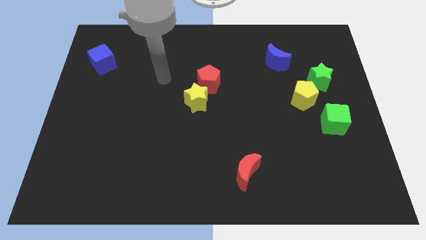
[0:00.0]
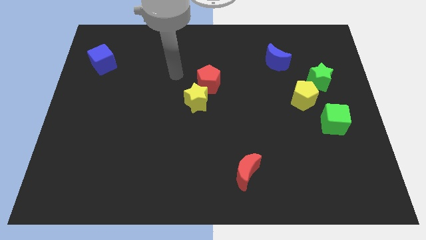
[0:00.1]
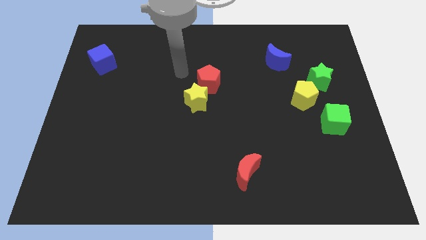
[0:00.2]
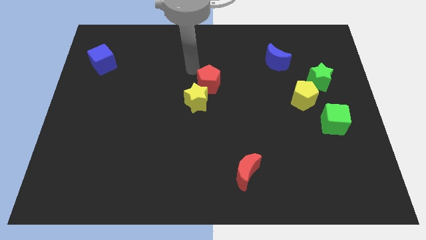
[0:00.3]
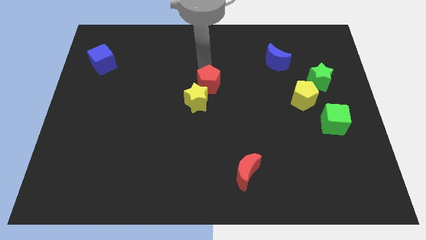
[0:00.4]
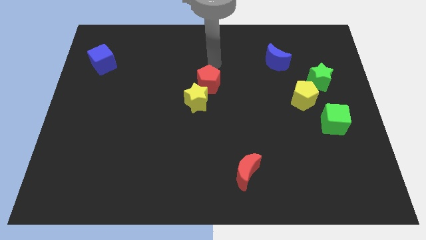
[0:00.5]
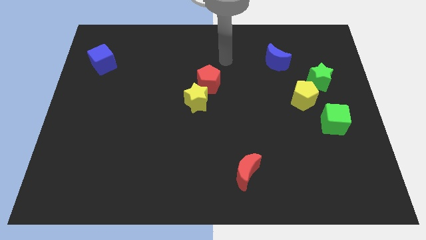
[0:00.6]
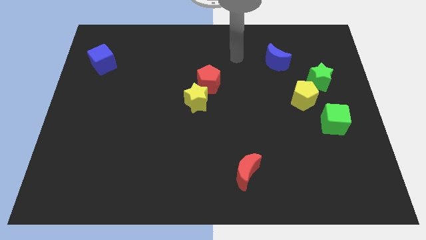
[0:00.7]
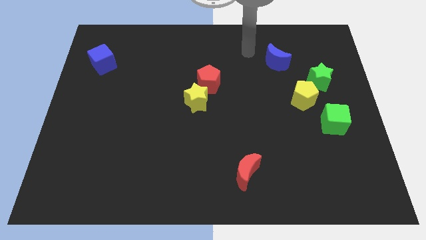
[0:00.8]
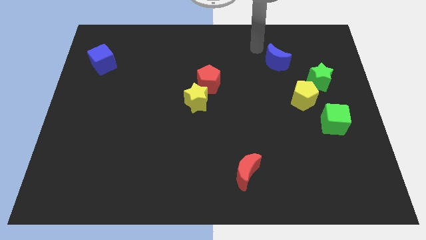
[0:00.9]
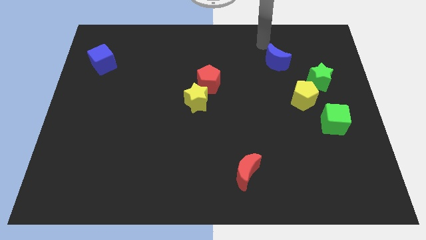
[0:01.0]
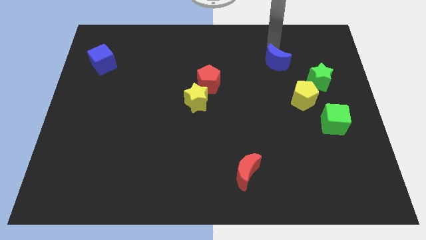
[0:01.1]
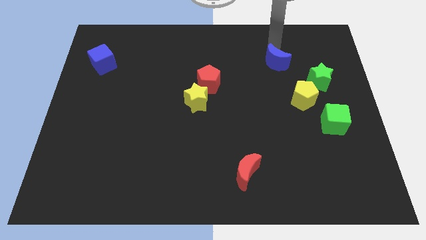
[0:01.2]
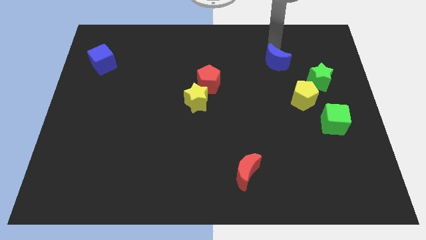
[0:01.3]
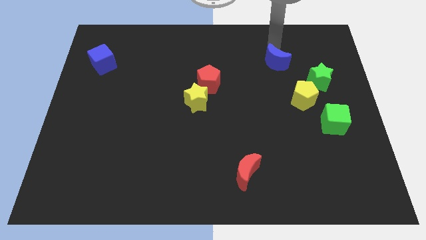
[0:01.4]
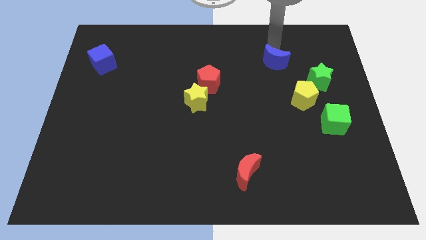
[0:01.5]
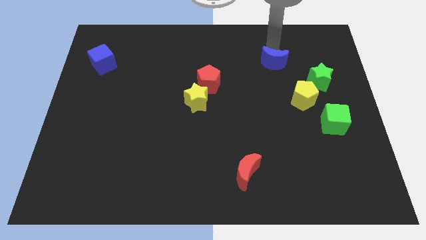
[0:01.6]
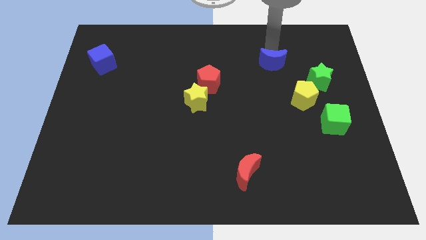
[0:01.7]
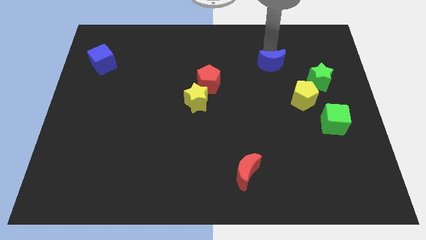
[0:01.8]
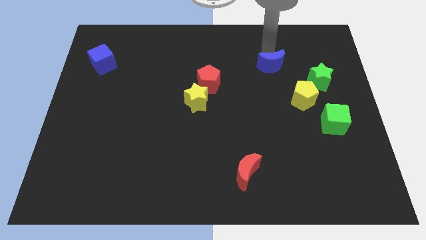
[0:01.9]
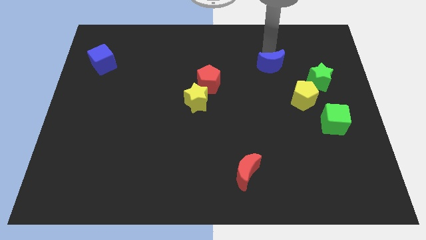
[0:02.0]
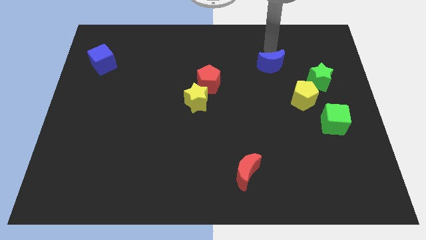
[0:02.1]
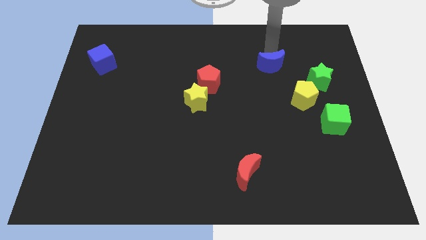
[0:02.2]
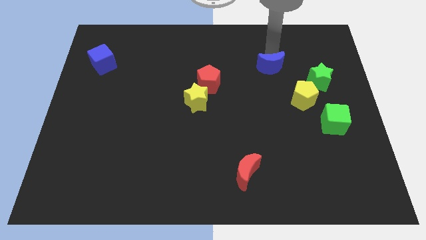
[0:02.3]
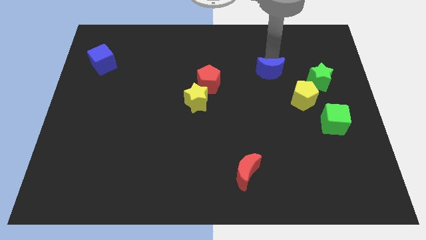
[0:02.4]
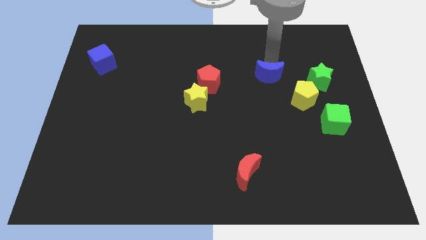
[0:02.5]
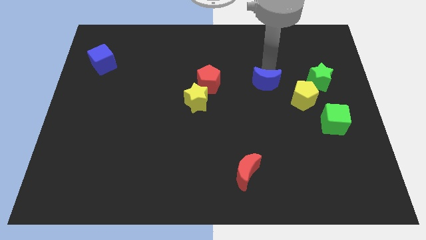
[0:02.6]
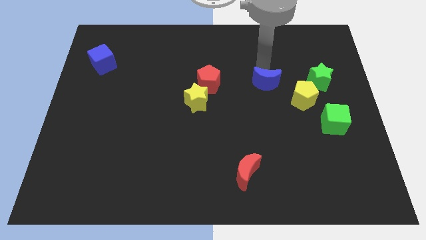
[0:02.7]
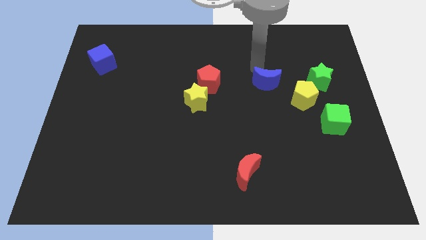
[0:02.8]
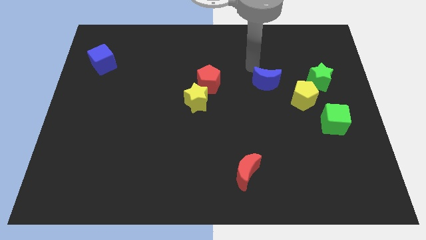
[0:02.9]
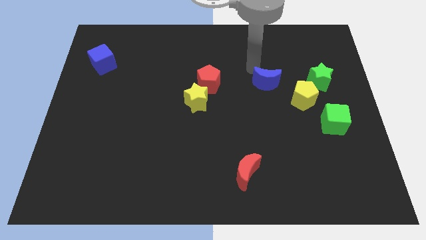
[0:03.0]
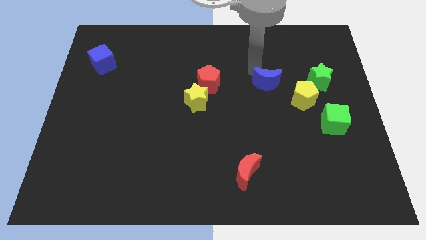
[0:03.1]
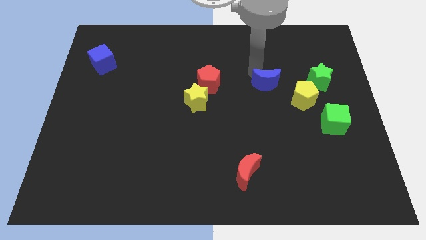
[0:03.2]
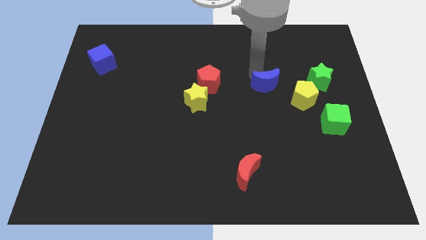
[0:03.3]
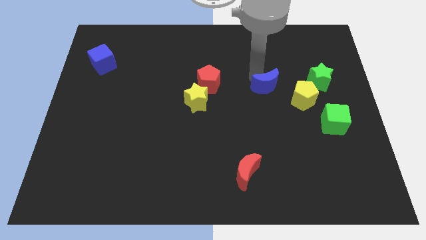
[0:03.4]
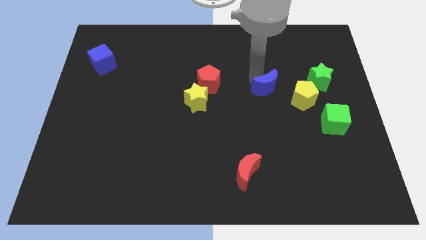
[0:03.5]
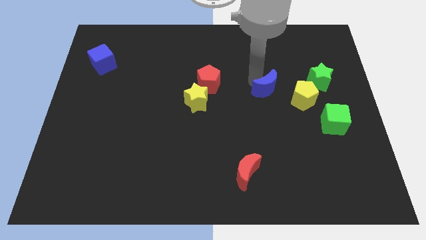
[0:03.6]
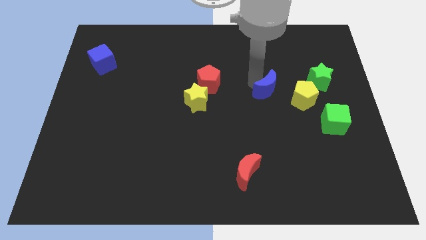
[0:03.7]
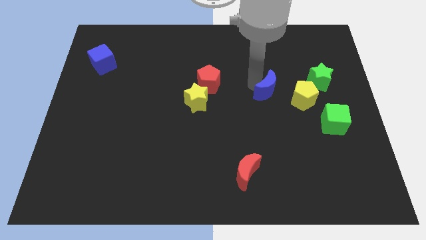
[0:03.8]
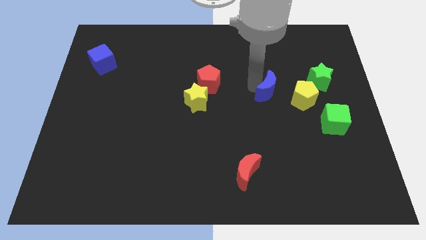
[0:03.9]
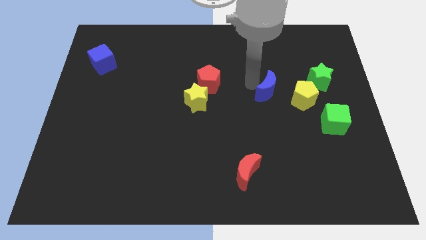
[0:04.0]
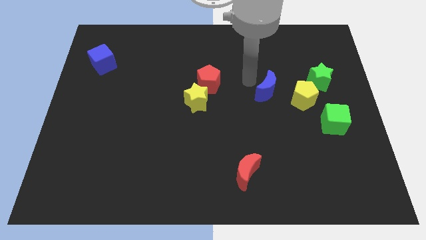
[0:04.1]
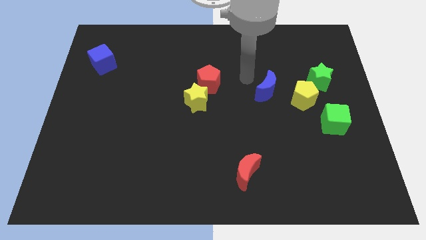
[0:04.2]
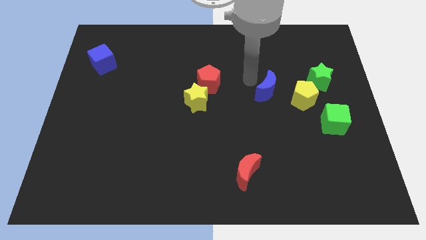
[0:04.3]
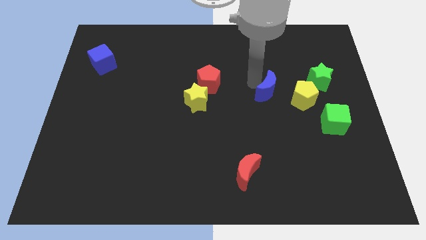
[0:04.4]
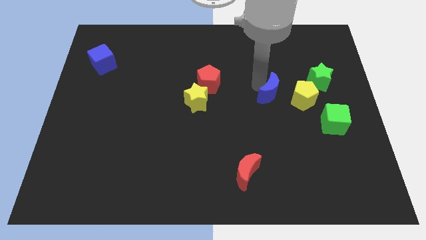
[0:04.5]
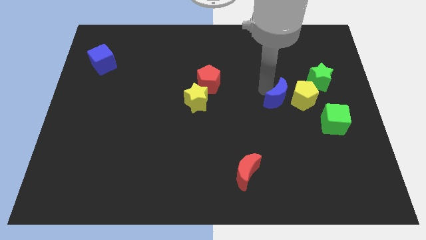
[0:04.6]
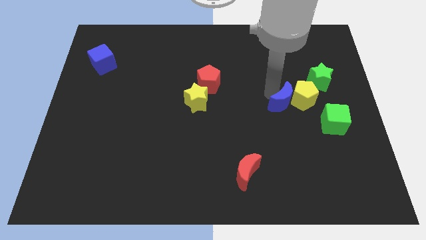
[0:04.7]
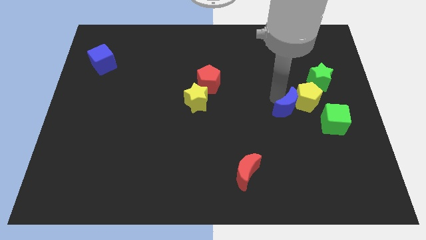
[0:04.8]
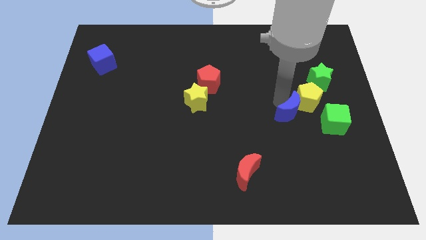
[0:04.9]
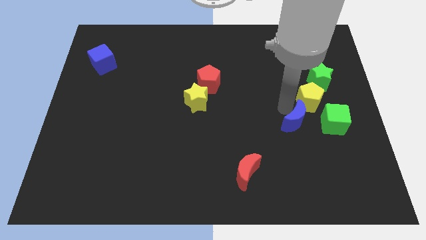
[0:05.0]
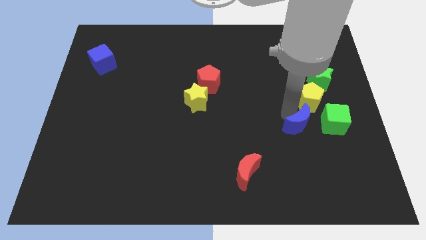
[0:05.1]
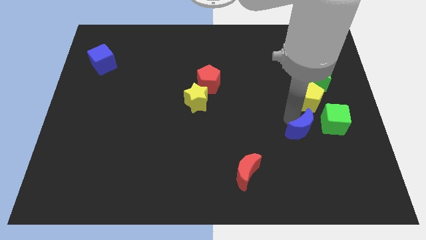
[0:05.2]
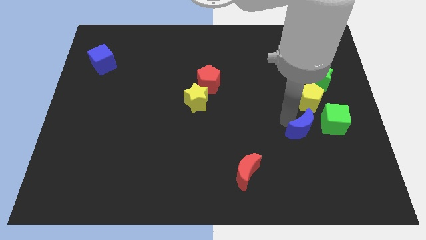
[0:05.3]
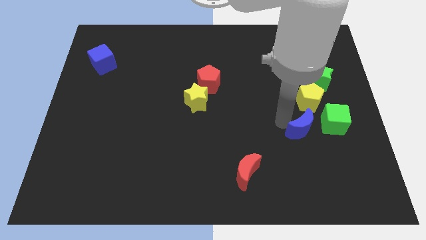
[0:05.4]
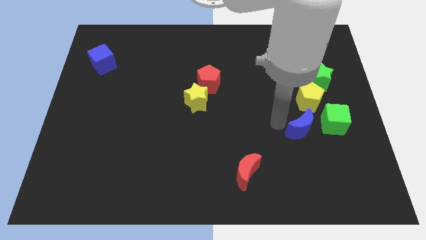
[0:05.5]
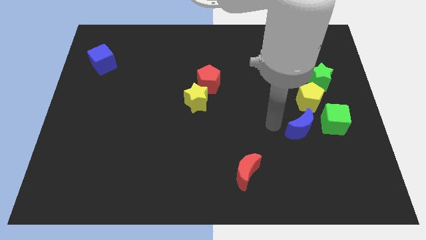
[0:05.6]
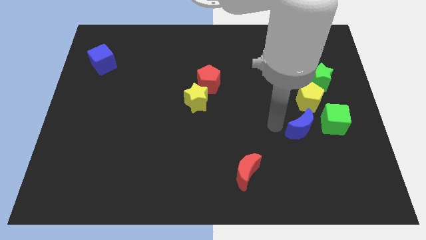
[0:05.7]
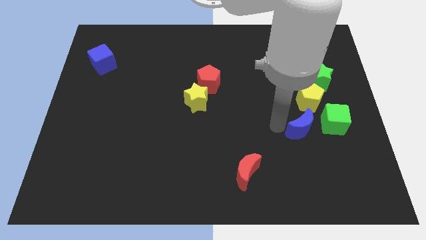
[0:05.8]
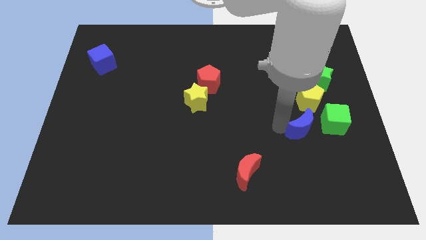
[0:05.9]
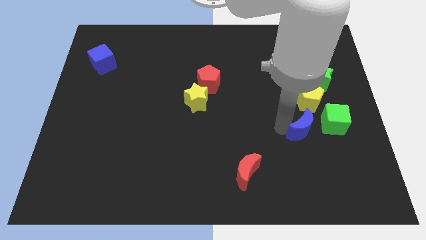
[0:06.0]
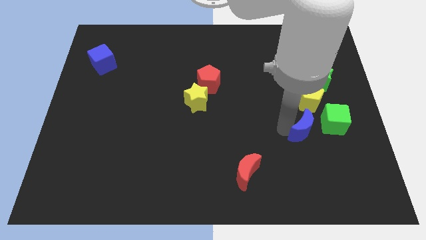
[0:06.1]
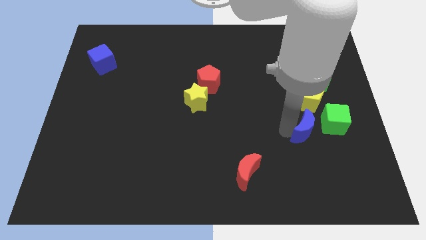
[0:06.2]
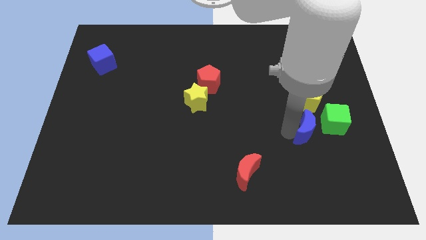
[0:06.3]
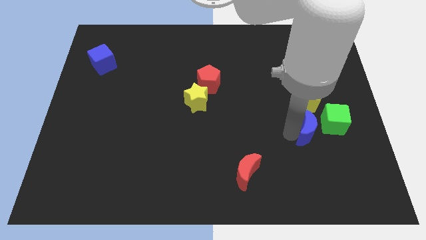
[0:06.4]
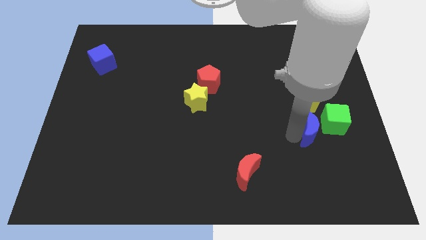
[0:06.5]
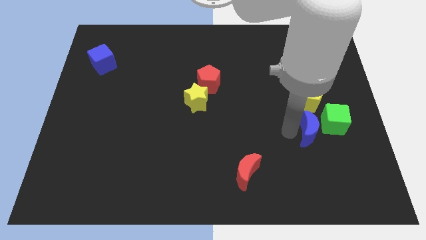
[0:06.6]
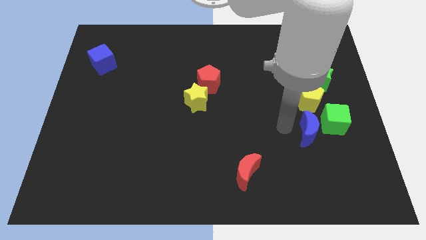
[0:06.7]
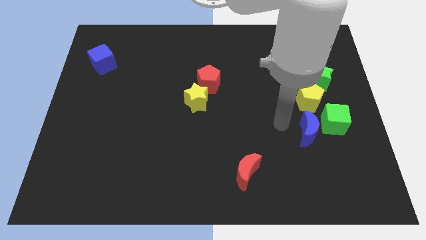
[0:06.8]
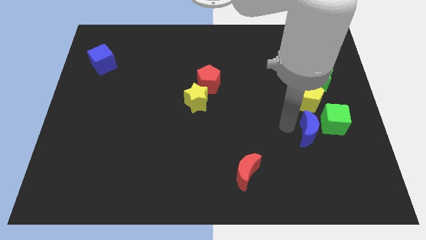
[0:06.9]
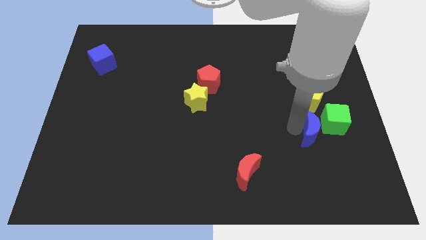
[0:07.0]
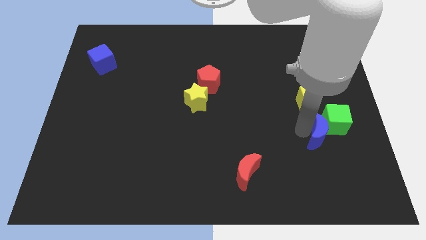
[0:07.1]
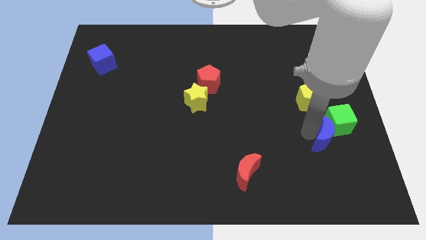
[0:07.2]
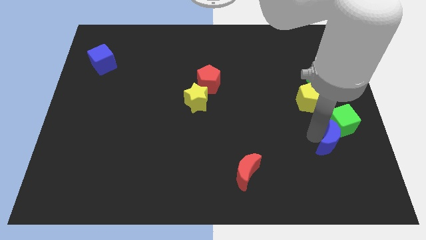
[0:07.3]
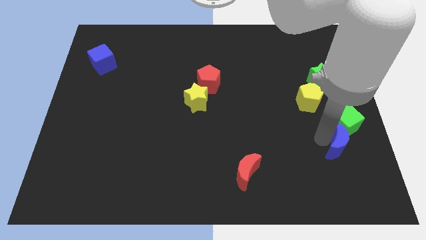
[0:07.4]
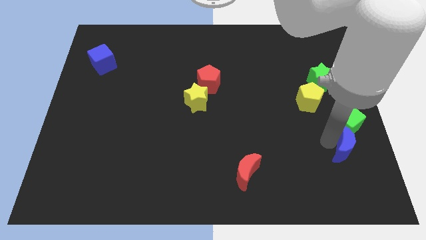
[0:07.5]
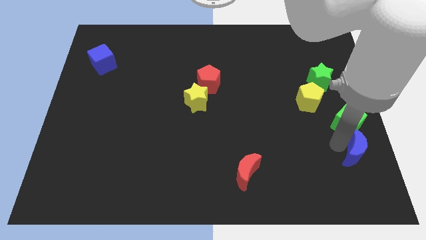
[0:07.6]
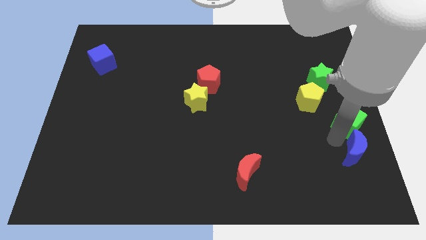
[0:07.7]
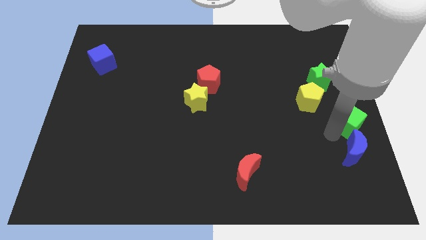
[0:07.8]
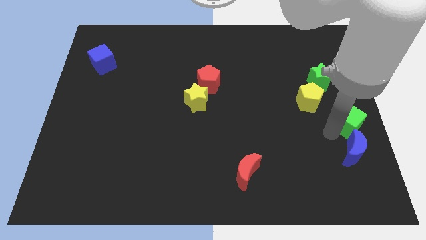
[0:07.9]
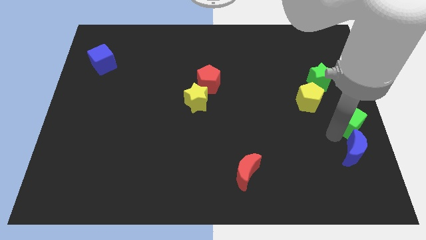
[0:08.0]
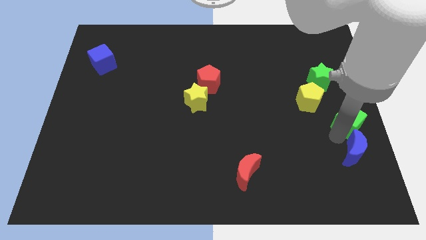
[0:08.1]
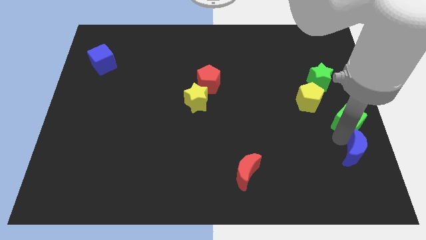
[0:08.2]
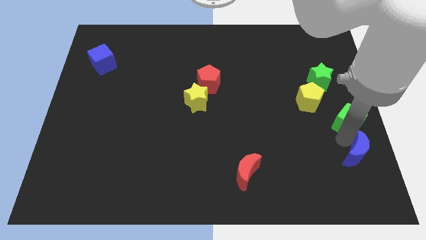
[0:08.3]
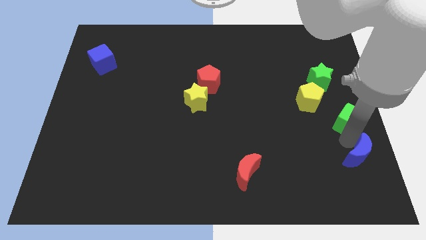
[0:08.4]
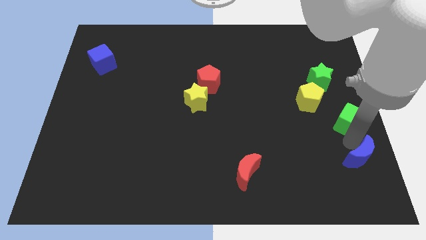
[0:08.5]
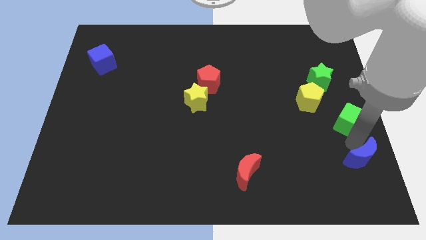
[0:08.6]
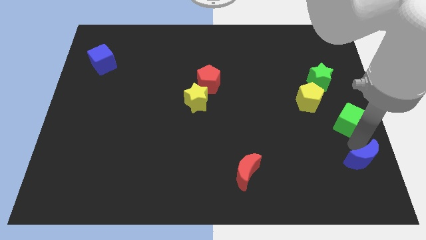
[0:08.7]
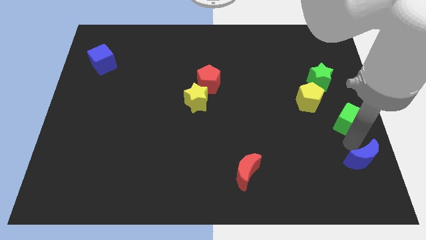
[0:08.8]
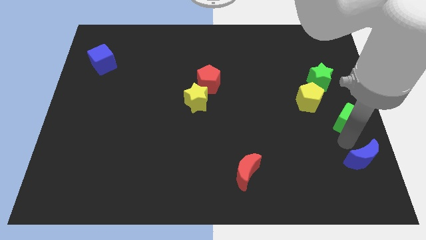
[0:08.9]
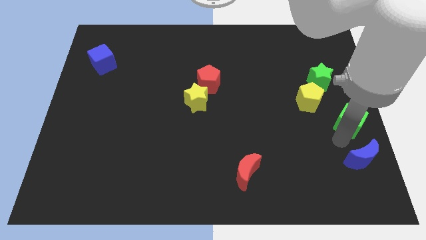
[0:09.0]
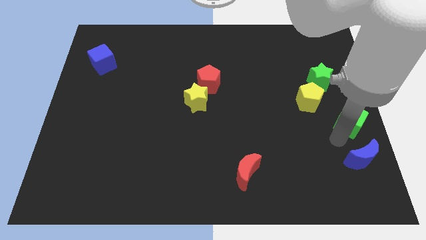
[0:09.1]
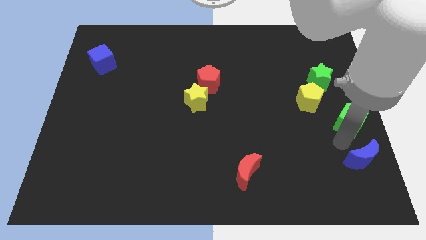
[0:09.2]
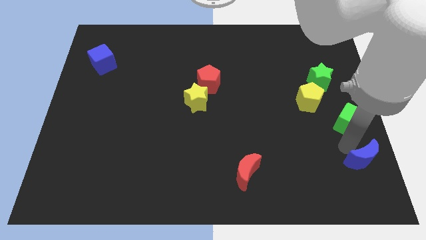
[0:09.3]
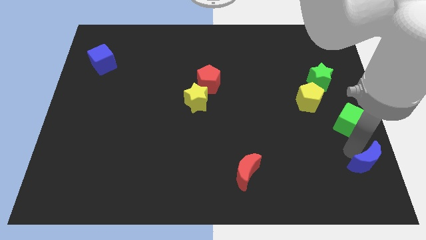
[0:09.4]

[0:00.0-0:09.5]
slide the blue moon to the lower right corner
